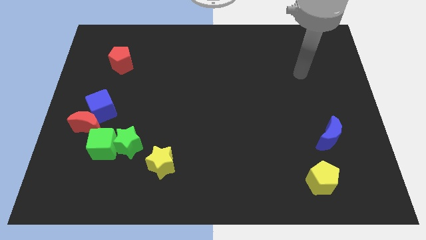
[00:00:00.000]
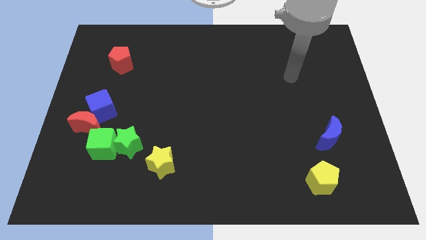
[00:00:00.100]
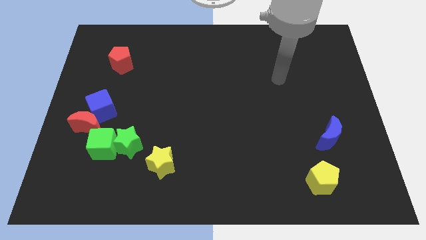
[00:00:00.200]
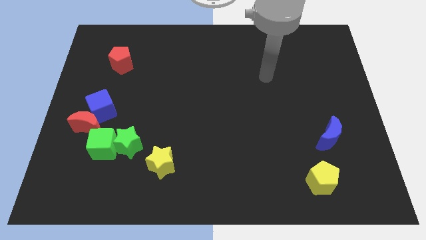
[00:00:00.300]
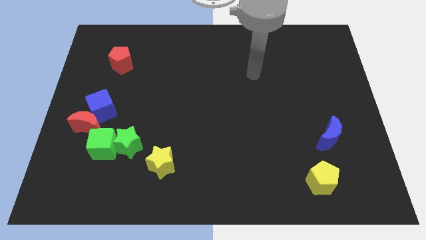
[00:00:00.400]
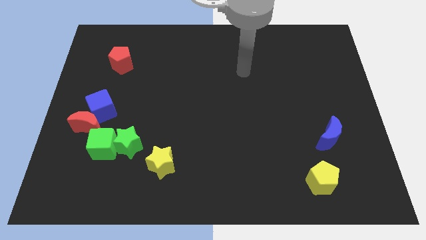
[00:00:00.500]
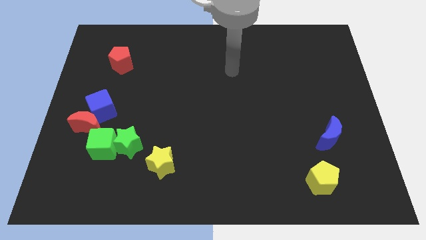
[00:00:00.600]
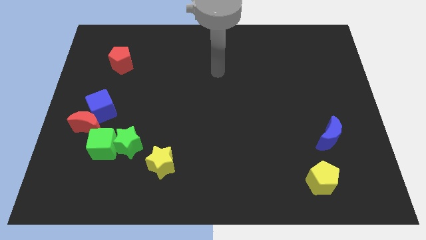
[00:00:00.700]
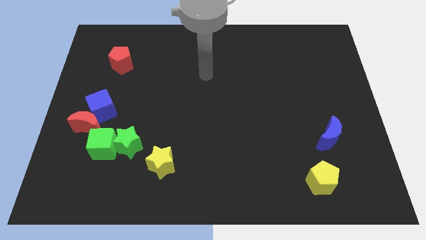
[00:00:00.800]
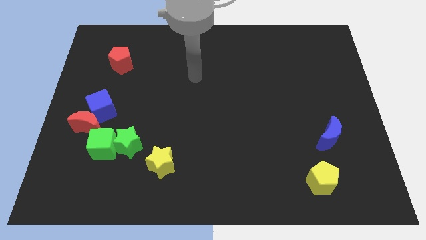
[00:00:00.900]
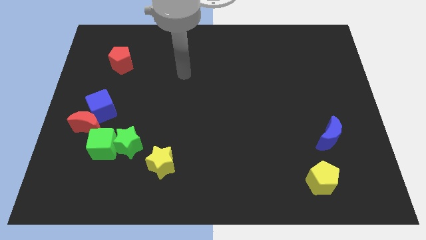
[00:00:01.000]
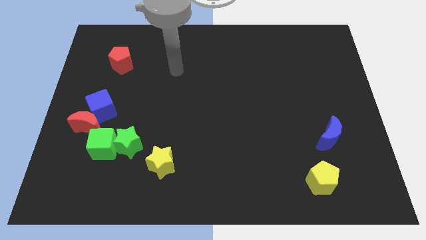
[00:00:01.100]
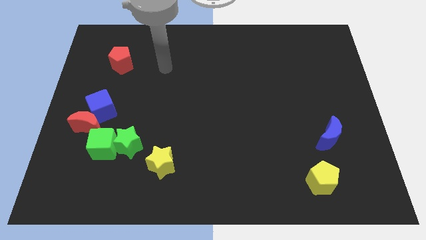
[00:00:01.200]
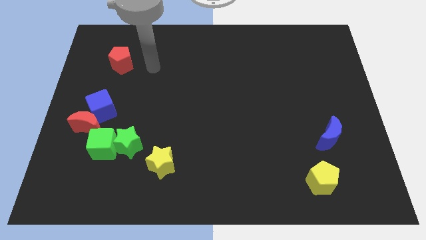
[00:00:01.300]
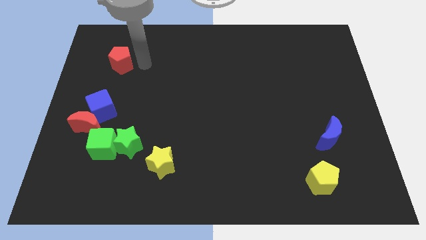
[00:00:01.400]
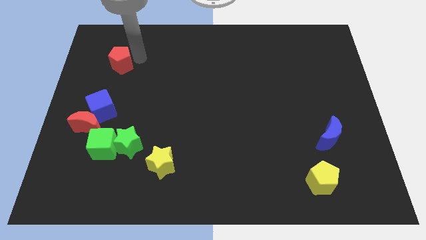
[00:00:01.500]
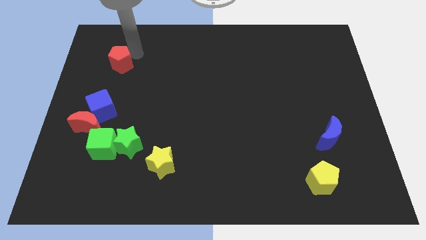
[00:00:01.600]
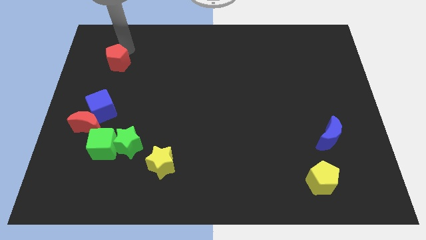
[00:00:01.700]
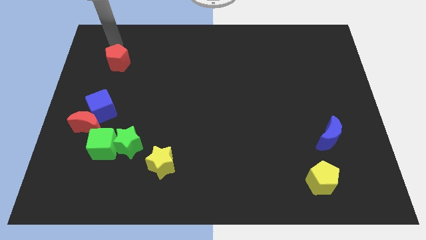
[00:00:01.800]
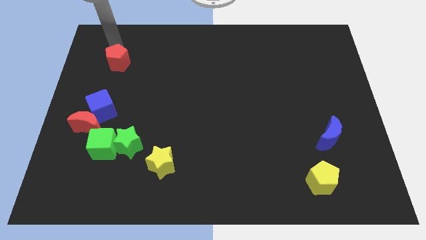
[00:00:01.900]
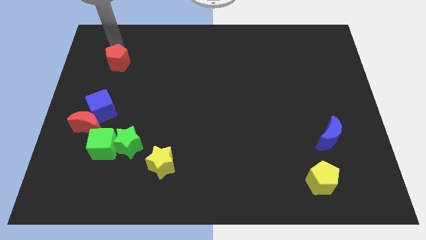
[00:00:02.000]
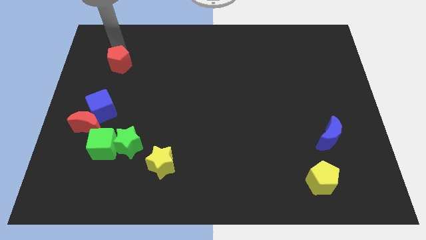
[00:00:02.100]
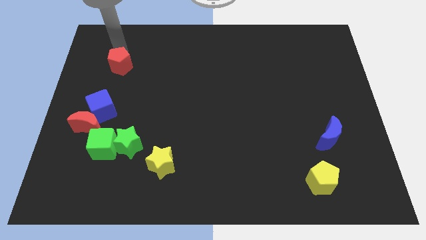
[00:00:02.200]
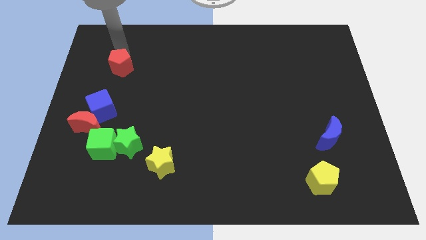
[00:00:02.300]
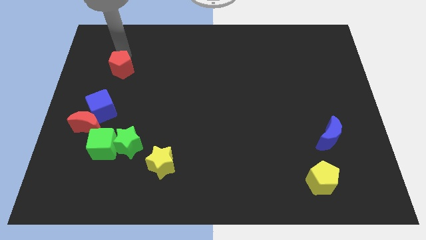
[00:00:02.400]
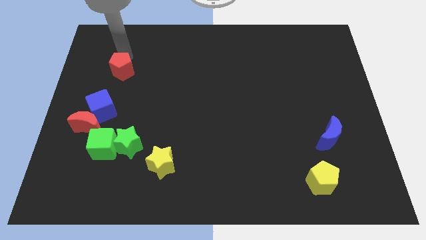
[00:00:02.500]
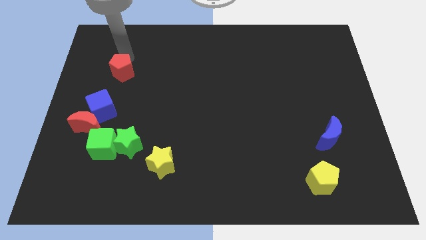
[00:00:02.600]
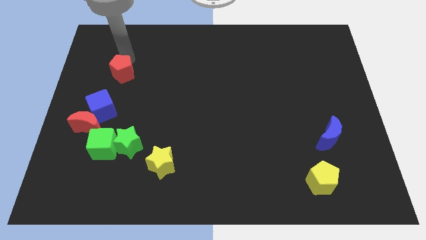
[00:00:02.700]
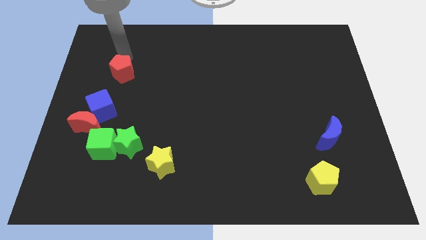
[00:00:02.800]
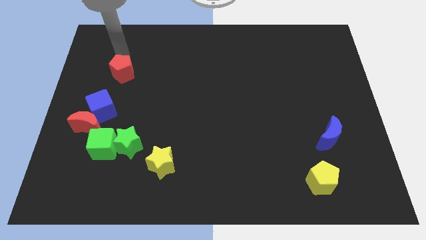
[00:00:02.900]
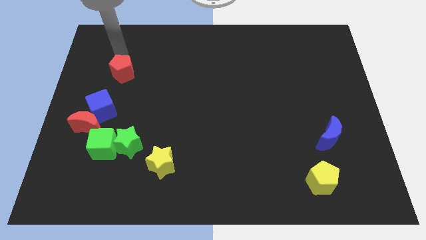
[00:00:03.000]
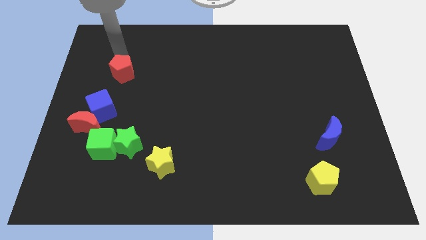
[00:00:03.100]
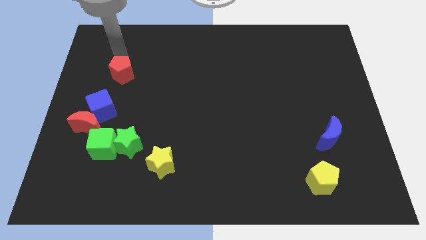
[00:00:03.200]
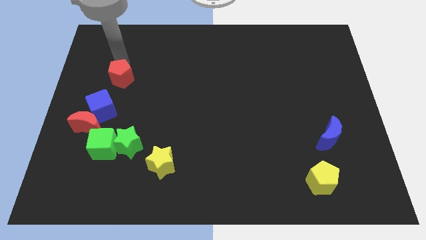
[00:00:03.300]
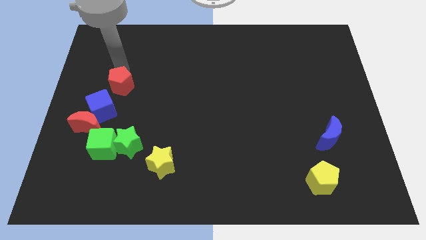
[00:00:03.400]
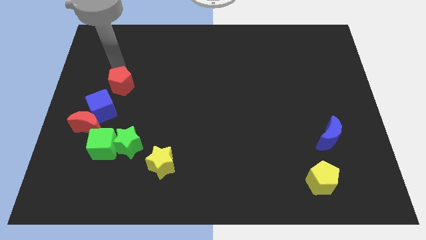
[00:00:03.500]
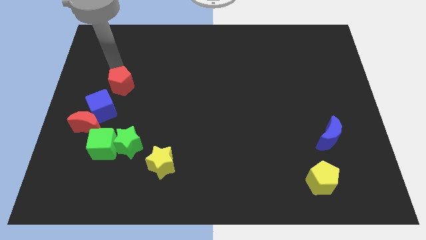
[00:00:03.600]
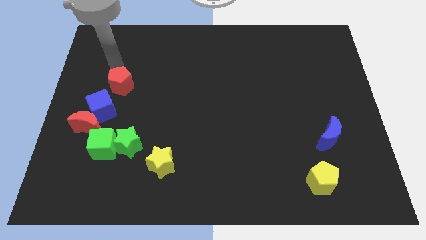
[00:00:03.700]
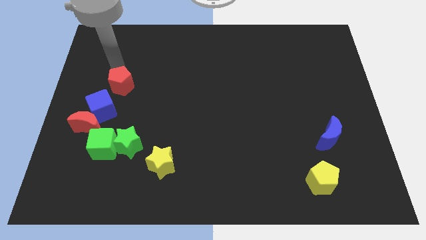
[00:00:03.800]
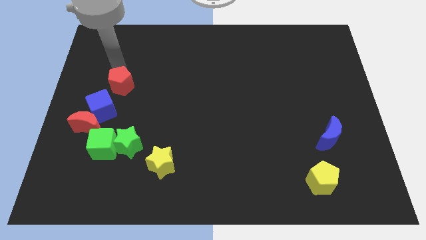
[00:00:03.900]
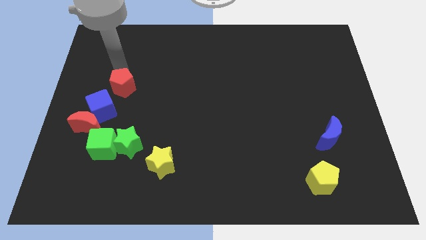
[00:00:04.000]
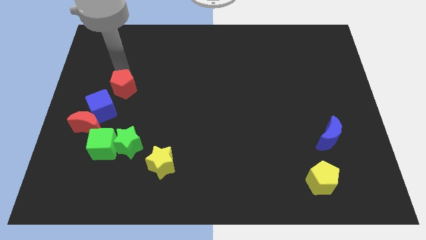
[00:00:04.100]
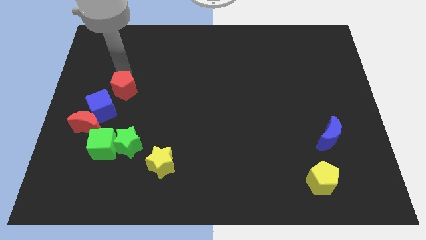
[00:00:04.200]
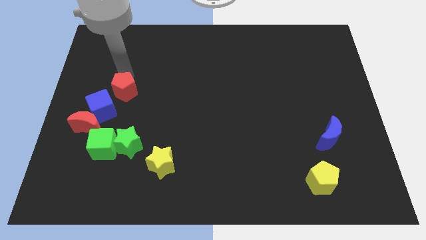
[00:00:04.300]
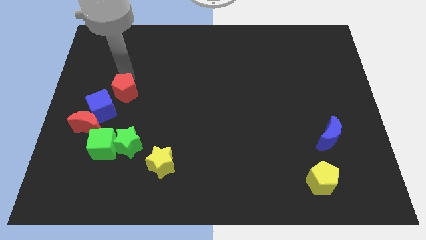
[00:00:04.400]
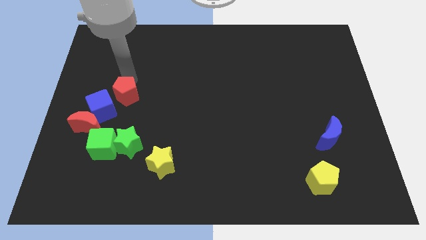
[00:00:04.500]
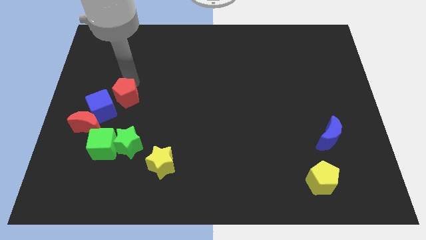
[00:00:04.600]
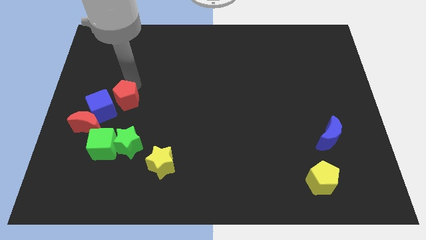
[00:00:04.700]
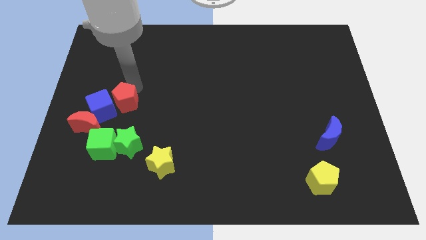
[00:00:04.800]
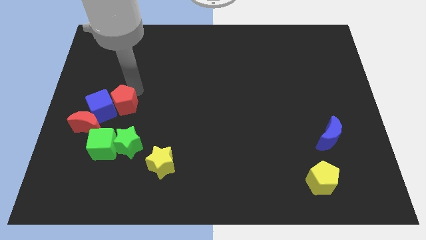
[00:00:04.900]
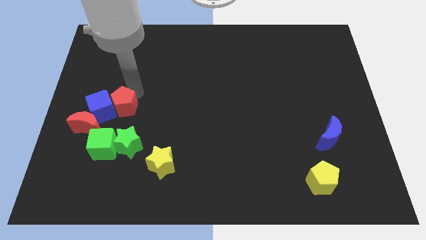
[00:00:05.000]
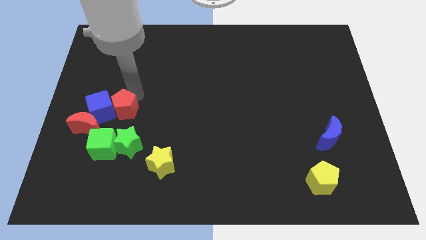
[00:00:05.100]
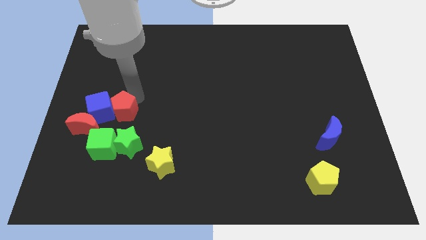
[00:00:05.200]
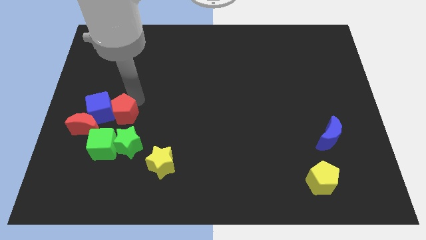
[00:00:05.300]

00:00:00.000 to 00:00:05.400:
move the red pentagon to the top left side of the green star

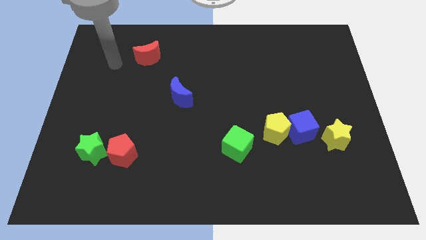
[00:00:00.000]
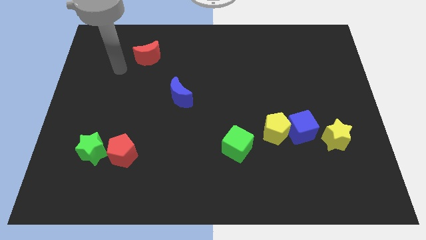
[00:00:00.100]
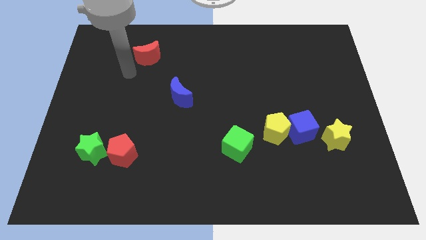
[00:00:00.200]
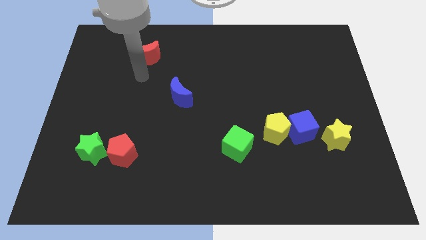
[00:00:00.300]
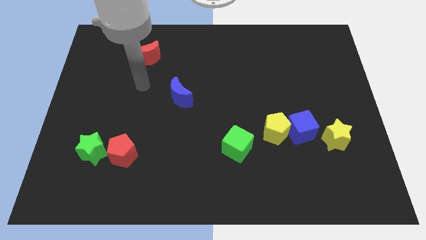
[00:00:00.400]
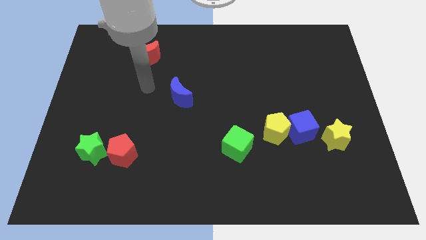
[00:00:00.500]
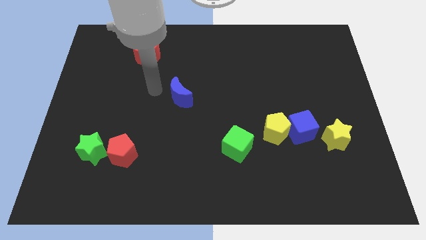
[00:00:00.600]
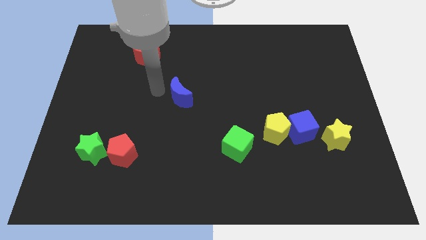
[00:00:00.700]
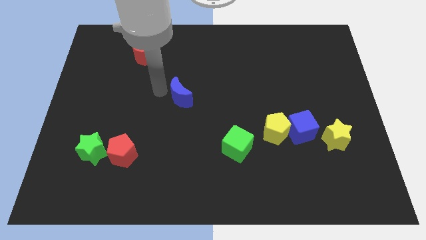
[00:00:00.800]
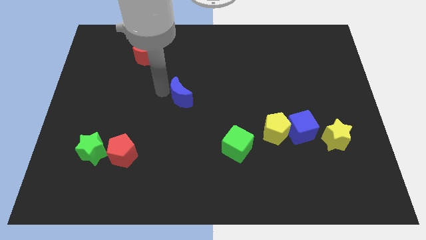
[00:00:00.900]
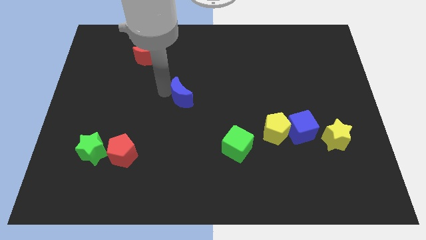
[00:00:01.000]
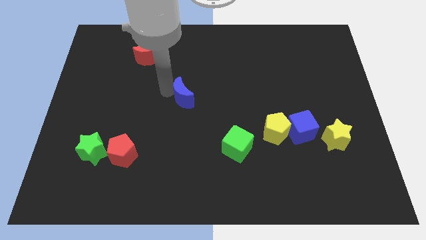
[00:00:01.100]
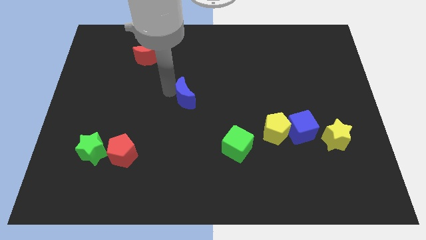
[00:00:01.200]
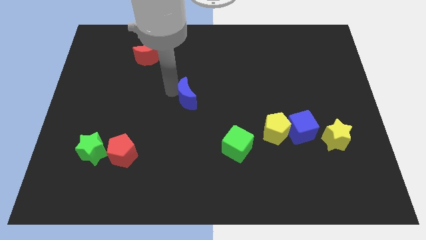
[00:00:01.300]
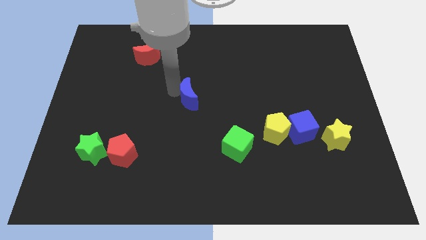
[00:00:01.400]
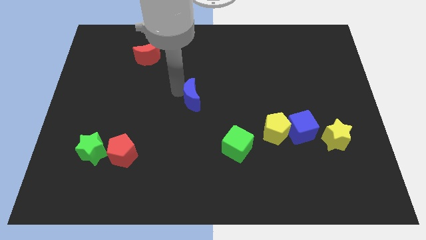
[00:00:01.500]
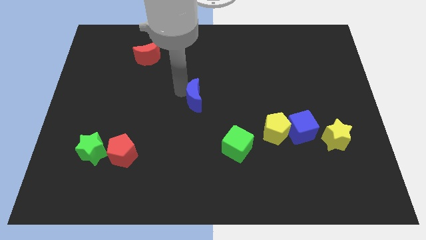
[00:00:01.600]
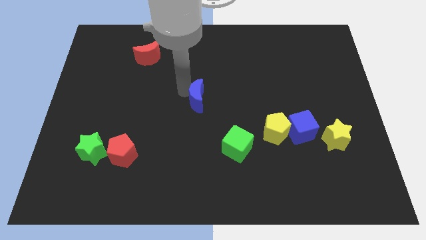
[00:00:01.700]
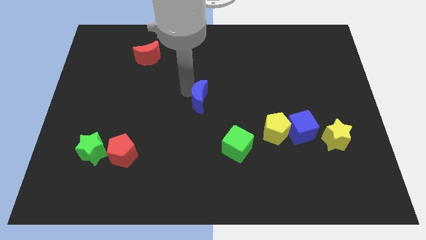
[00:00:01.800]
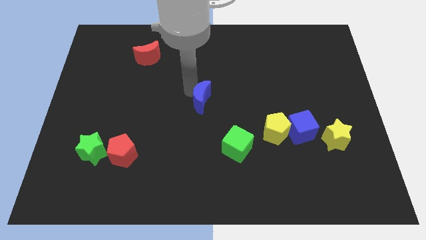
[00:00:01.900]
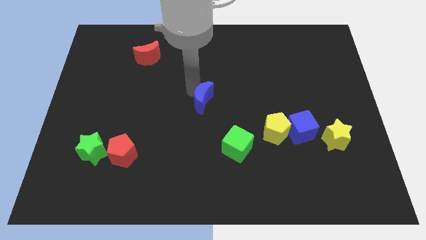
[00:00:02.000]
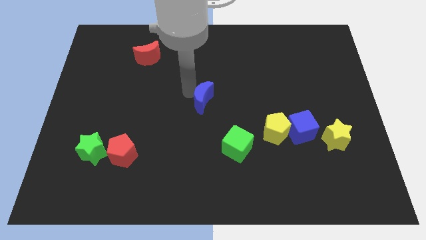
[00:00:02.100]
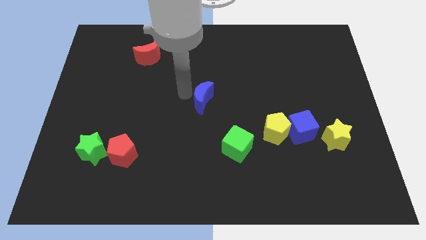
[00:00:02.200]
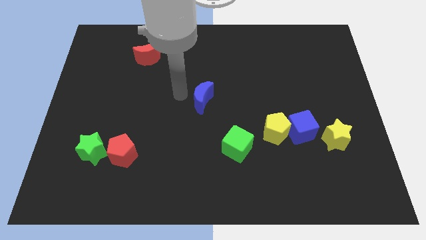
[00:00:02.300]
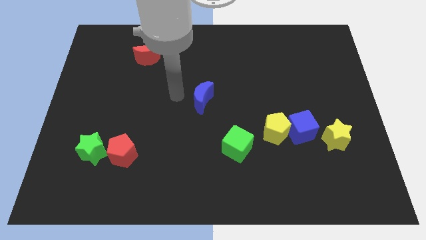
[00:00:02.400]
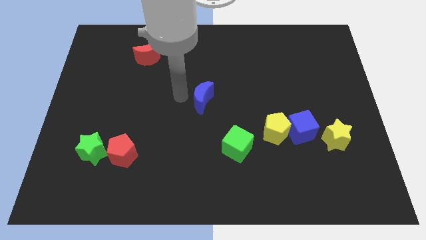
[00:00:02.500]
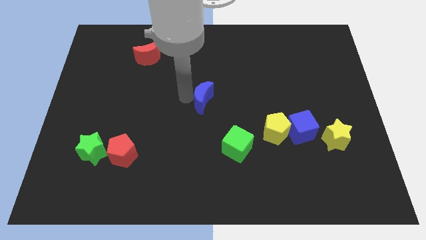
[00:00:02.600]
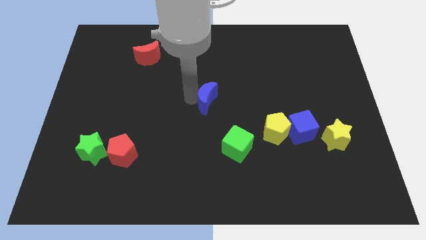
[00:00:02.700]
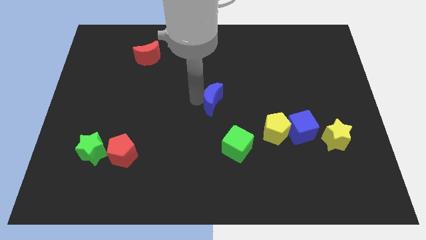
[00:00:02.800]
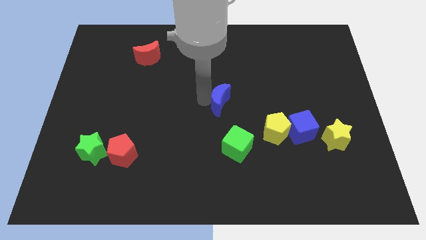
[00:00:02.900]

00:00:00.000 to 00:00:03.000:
push the blue moon to the top side of the green cube
